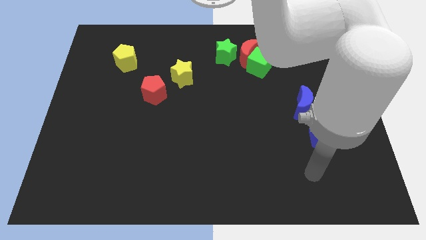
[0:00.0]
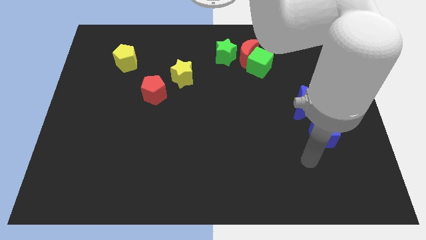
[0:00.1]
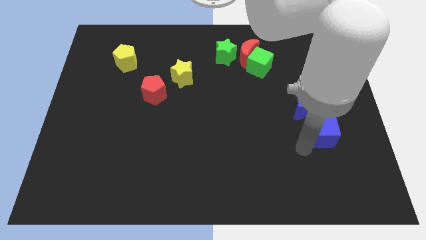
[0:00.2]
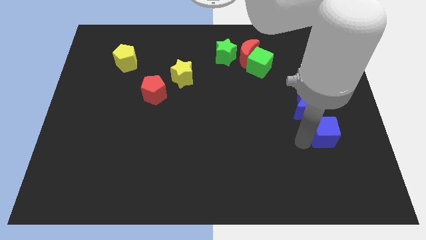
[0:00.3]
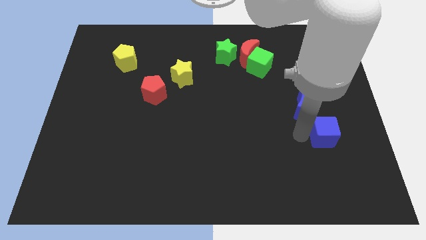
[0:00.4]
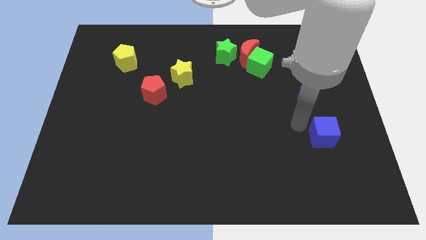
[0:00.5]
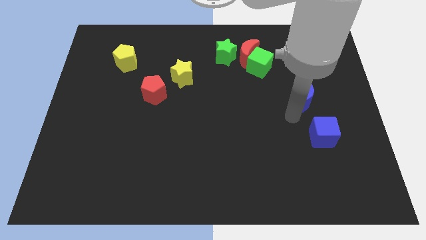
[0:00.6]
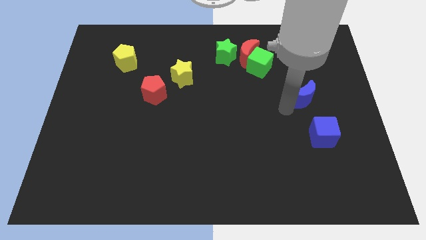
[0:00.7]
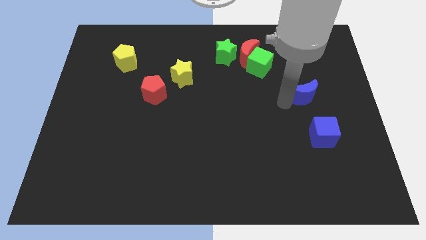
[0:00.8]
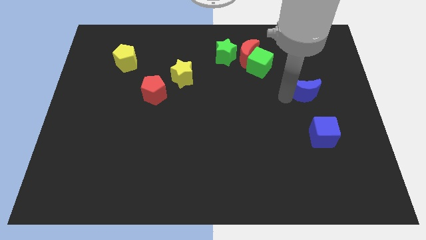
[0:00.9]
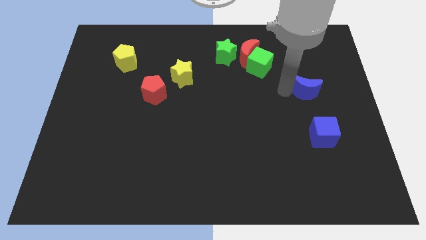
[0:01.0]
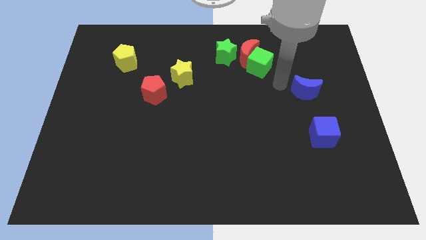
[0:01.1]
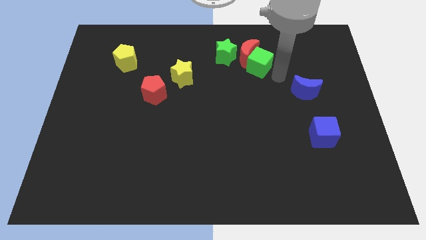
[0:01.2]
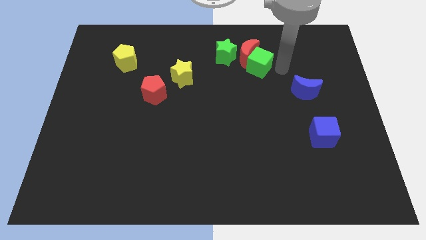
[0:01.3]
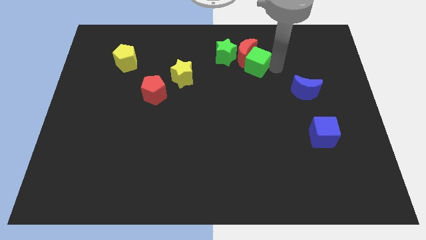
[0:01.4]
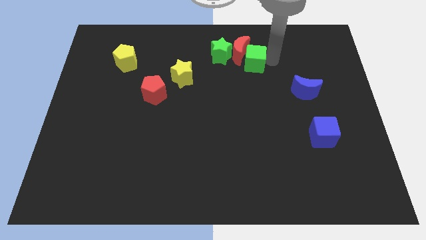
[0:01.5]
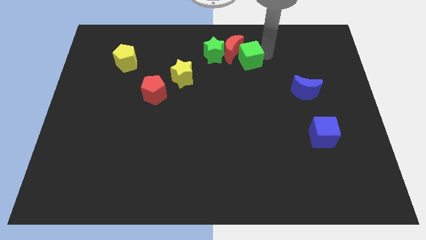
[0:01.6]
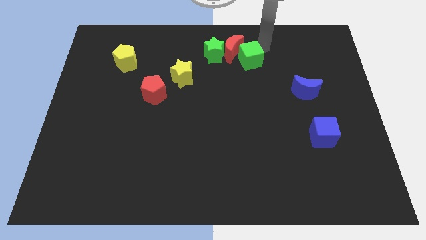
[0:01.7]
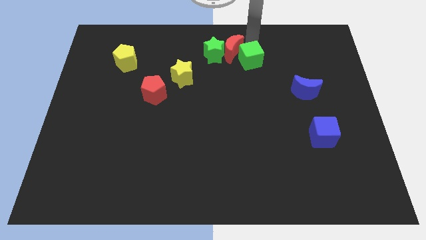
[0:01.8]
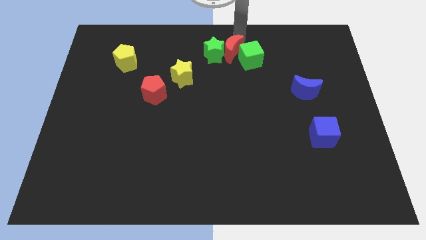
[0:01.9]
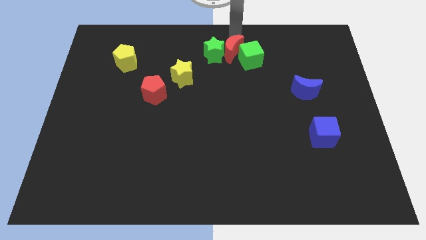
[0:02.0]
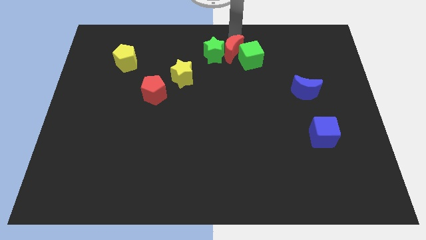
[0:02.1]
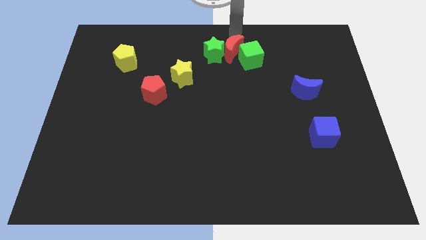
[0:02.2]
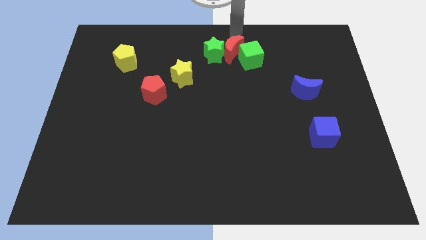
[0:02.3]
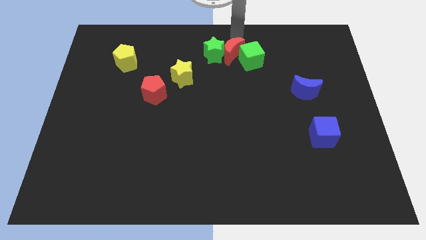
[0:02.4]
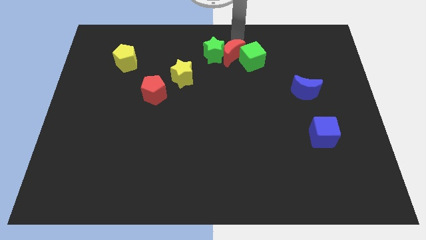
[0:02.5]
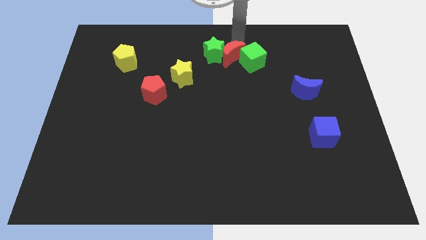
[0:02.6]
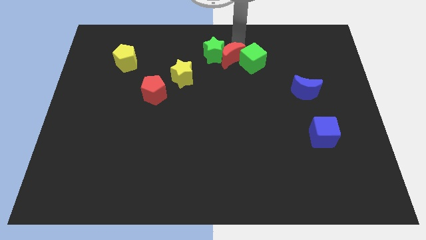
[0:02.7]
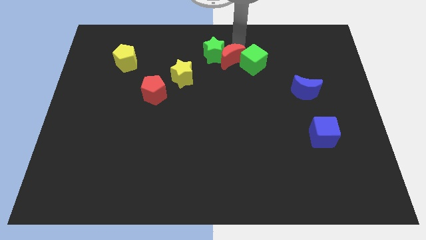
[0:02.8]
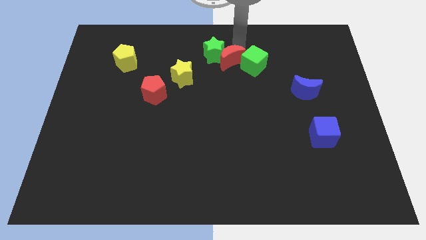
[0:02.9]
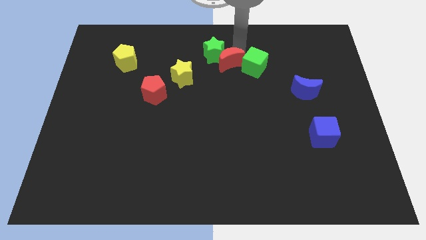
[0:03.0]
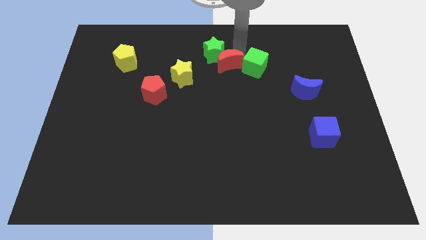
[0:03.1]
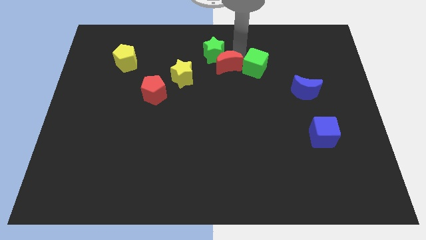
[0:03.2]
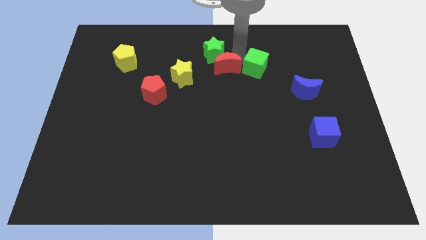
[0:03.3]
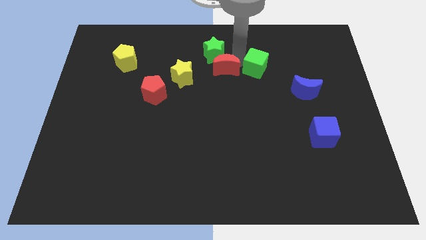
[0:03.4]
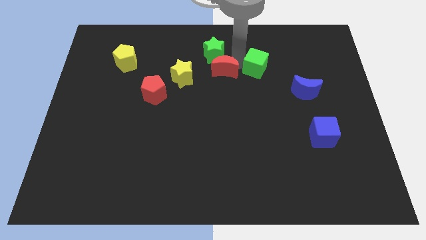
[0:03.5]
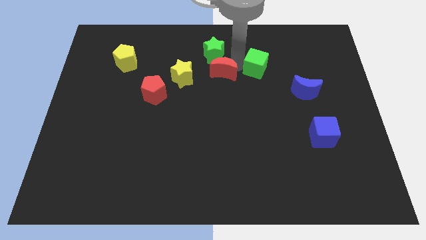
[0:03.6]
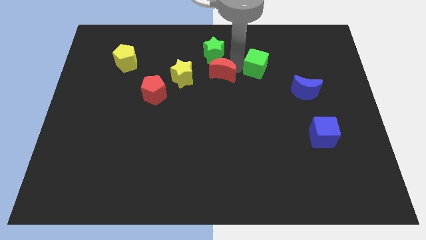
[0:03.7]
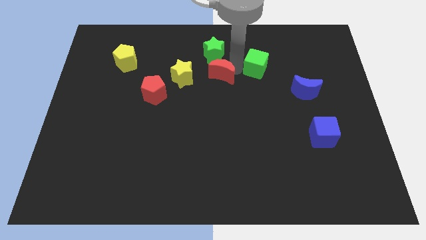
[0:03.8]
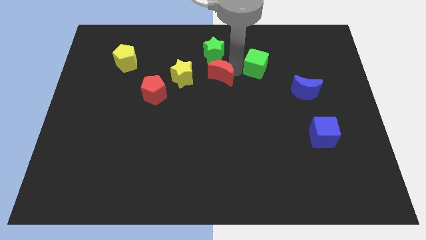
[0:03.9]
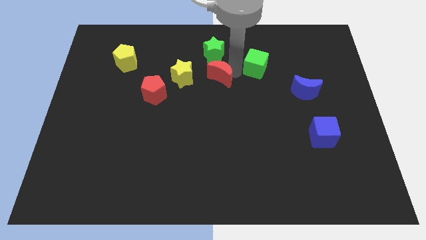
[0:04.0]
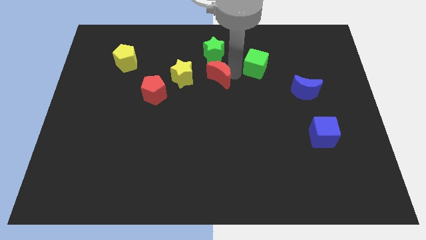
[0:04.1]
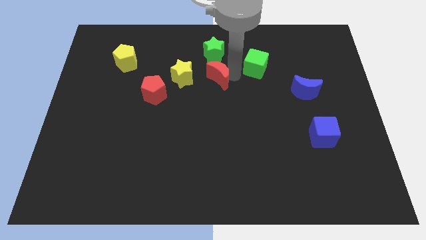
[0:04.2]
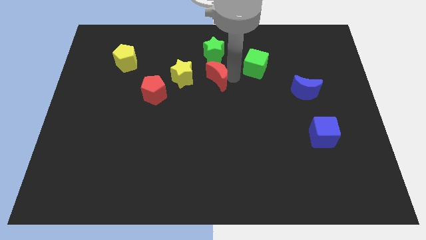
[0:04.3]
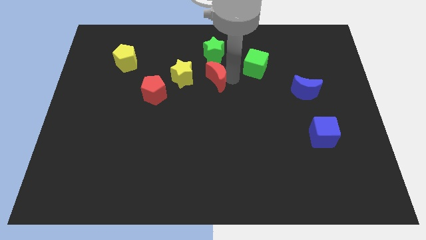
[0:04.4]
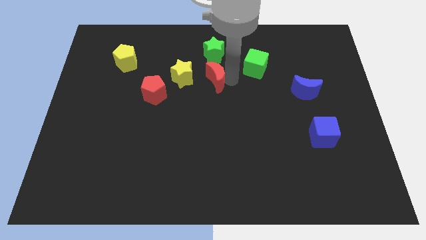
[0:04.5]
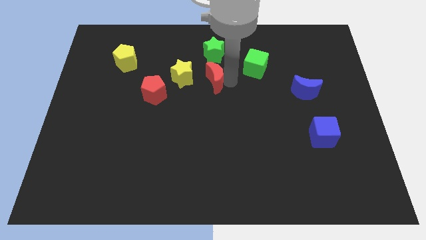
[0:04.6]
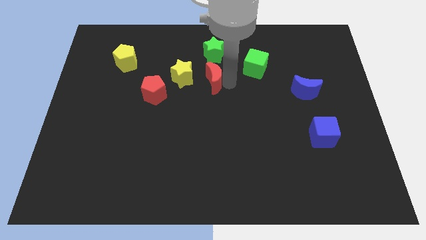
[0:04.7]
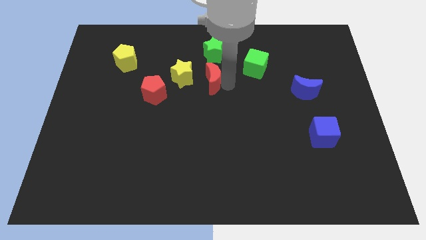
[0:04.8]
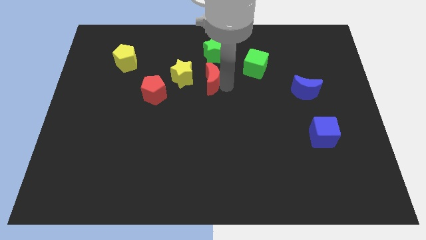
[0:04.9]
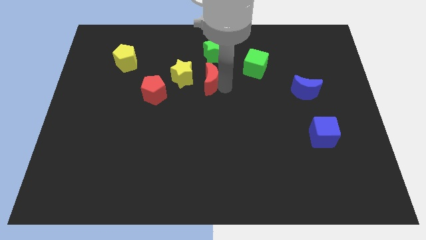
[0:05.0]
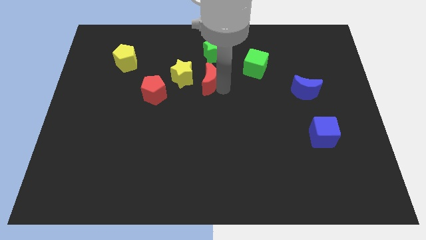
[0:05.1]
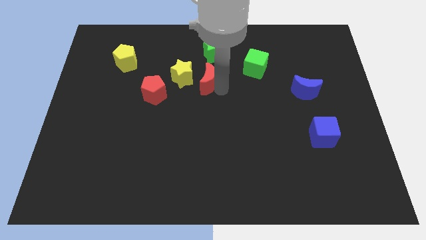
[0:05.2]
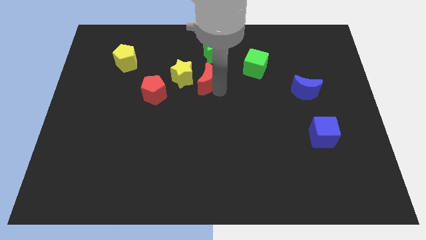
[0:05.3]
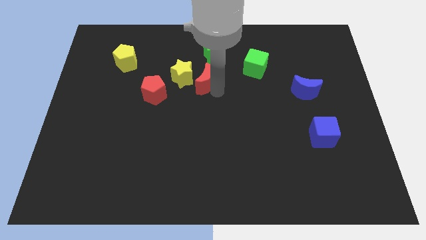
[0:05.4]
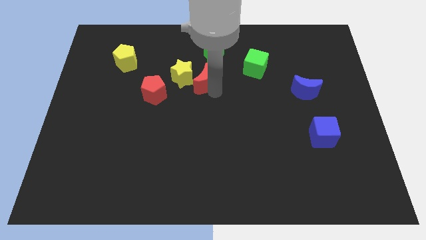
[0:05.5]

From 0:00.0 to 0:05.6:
put the red moon towards the yellow star

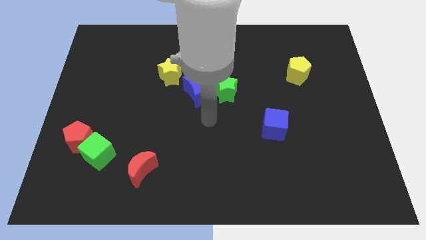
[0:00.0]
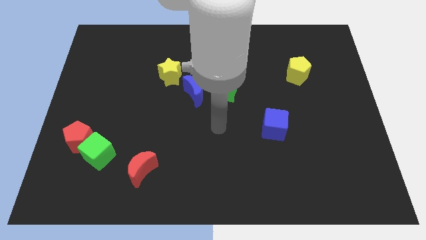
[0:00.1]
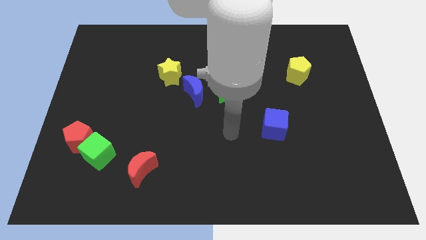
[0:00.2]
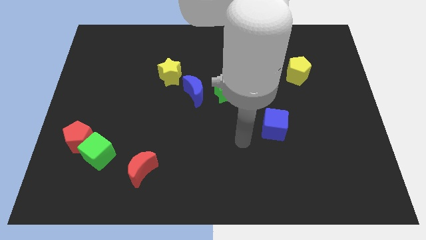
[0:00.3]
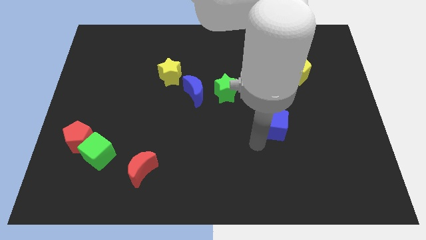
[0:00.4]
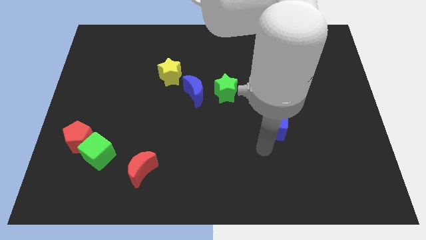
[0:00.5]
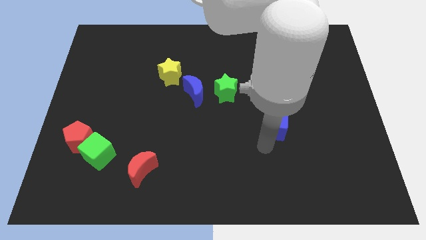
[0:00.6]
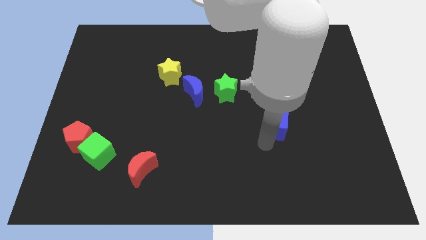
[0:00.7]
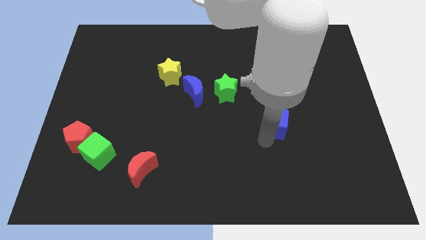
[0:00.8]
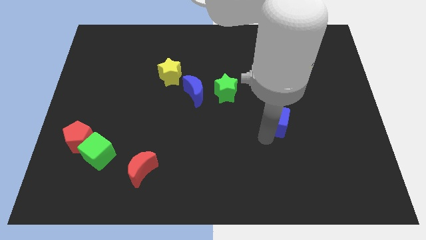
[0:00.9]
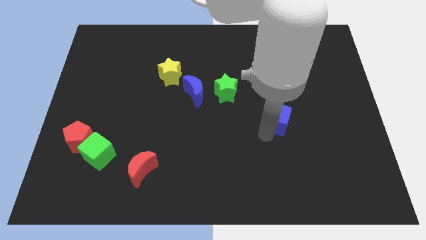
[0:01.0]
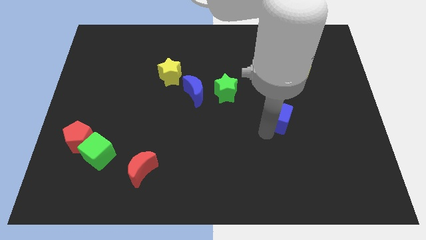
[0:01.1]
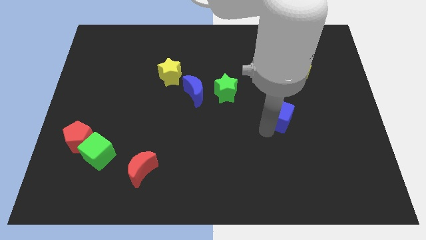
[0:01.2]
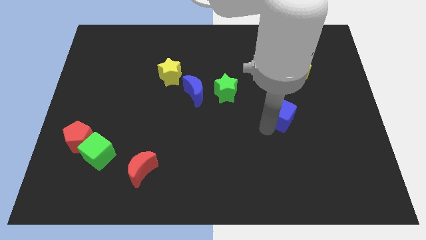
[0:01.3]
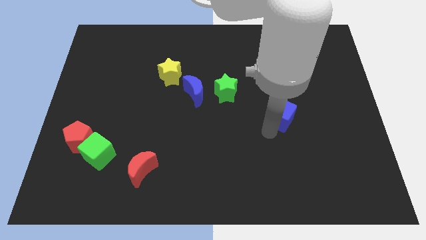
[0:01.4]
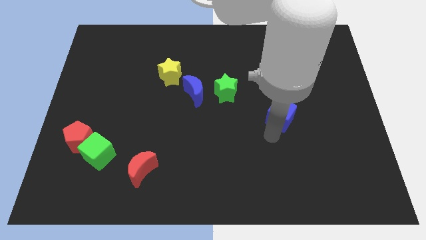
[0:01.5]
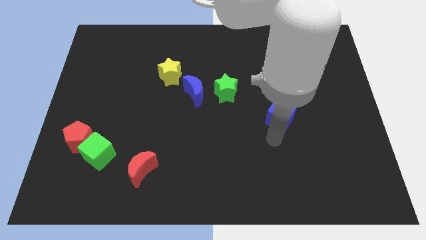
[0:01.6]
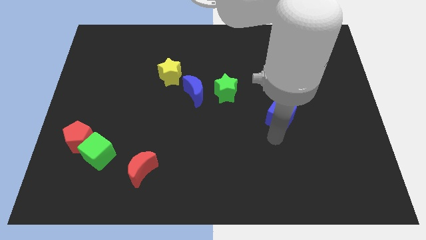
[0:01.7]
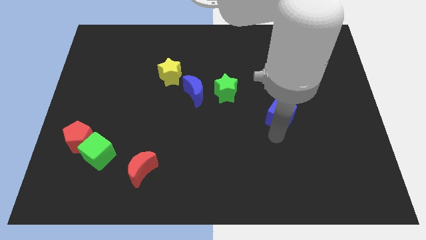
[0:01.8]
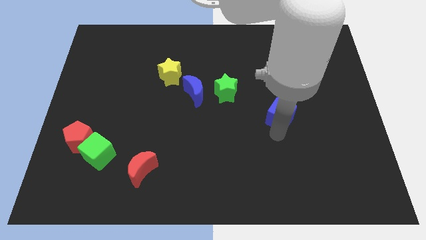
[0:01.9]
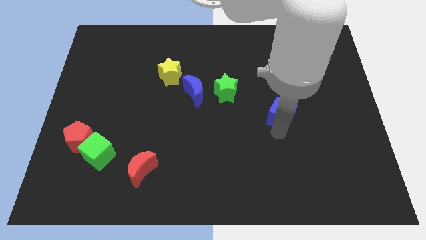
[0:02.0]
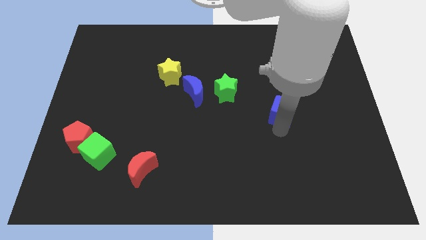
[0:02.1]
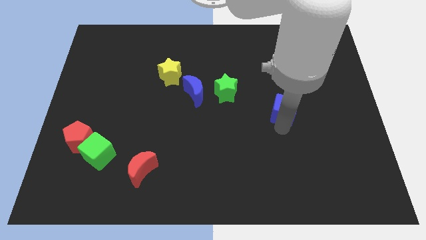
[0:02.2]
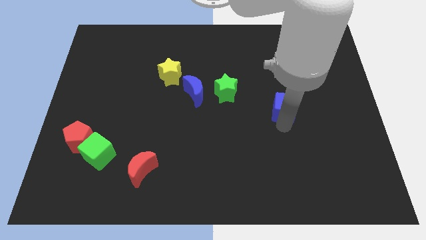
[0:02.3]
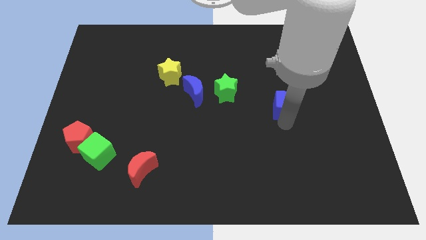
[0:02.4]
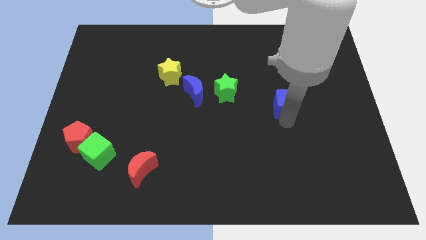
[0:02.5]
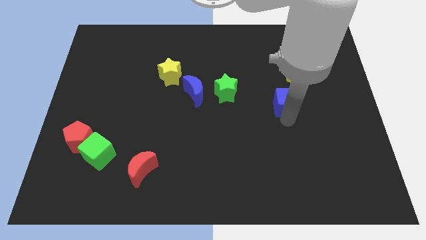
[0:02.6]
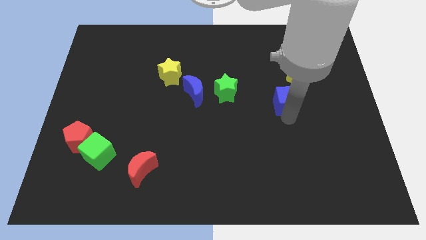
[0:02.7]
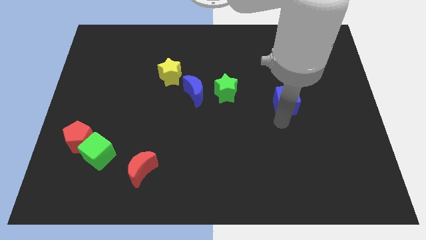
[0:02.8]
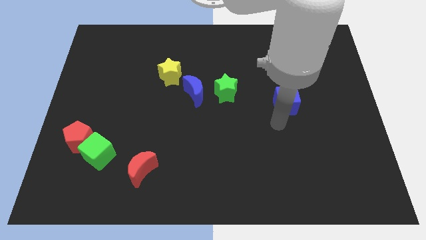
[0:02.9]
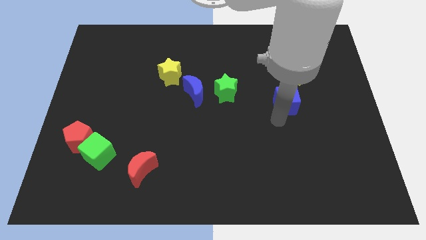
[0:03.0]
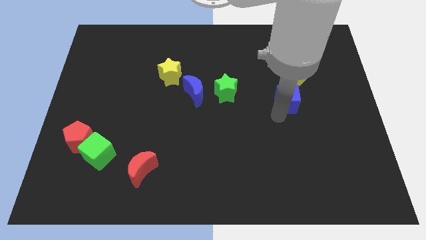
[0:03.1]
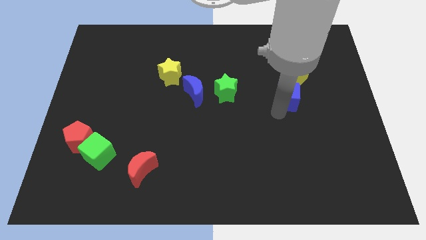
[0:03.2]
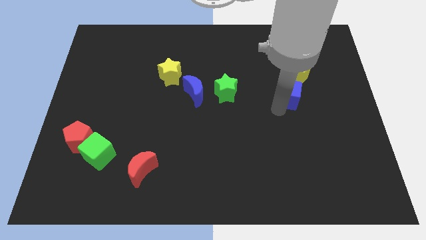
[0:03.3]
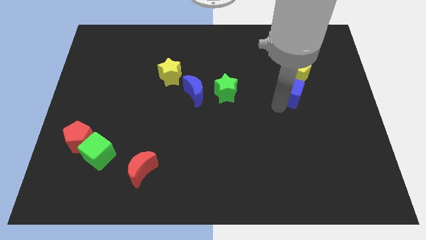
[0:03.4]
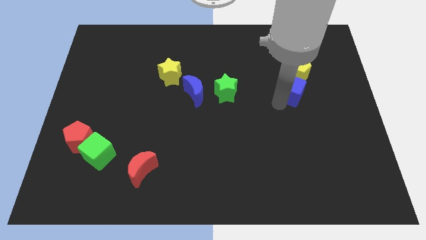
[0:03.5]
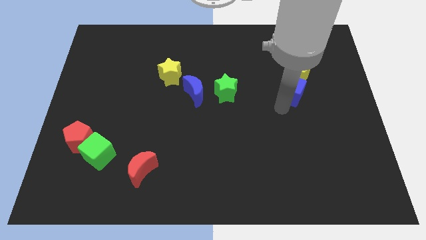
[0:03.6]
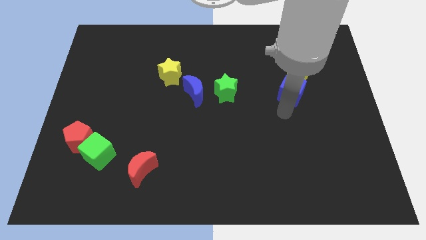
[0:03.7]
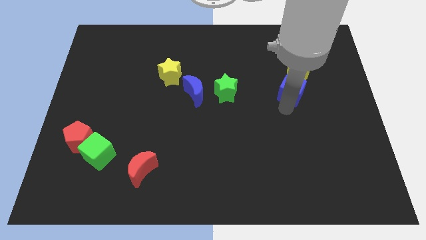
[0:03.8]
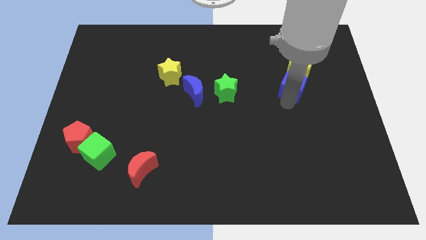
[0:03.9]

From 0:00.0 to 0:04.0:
move the blue cube to the yellow pentagon
